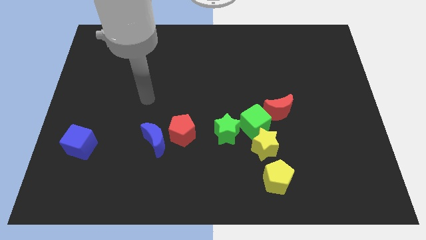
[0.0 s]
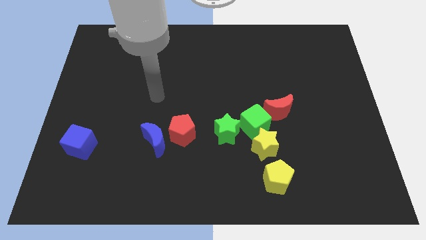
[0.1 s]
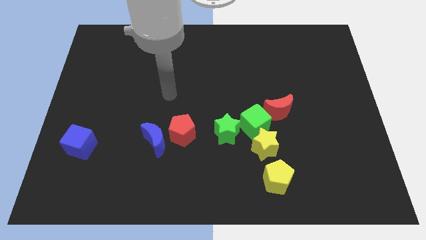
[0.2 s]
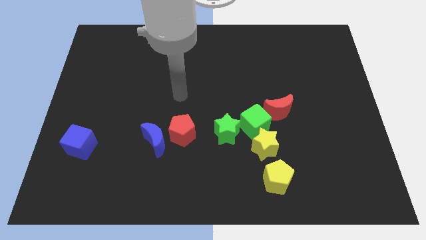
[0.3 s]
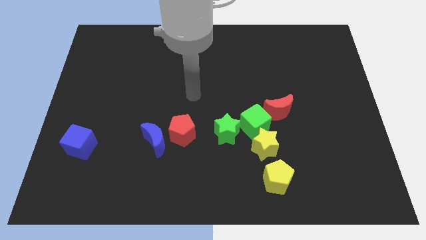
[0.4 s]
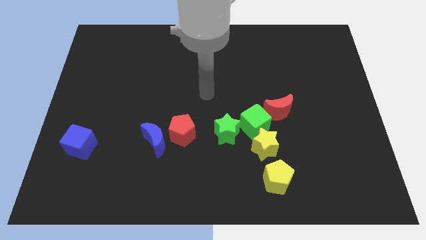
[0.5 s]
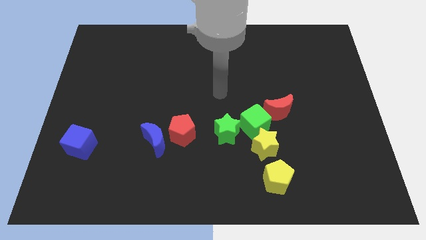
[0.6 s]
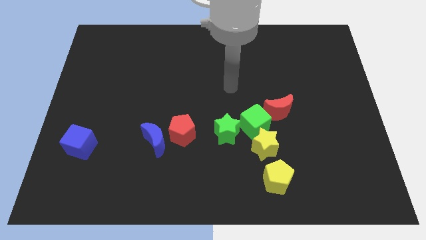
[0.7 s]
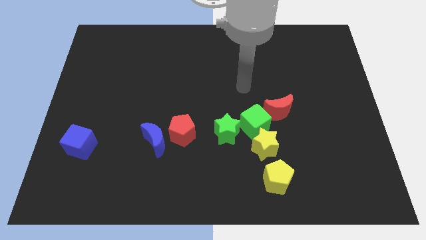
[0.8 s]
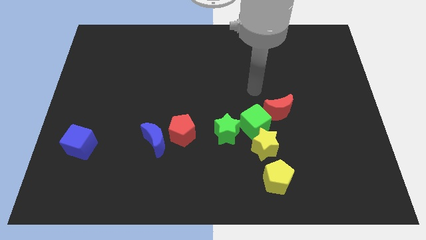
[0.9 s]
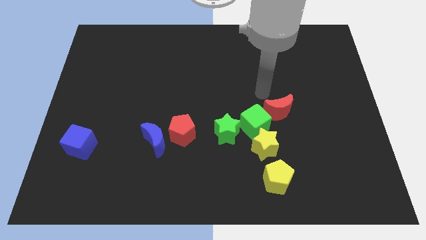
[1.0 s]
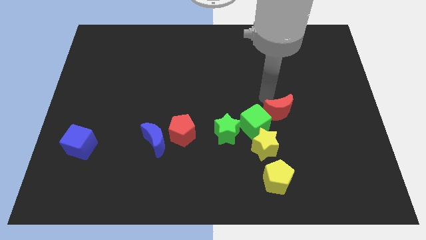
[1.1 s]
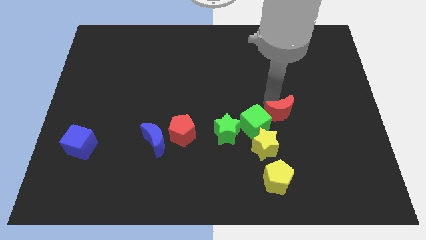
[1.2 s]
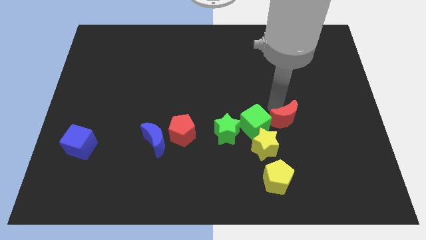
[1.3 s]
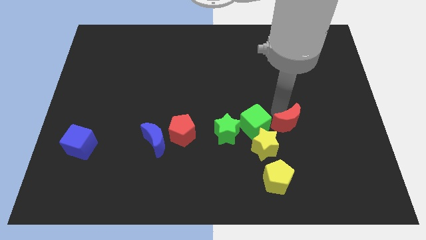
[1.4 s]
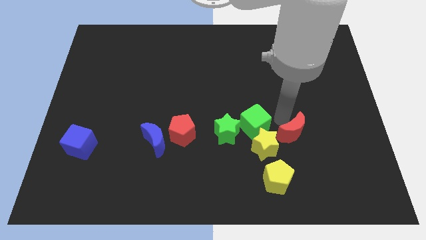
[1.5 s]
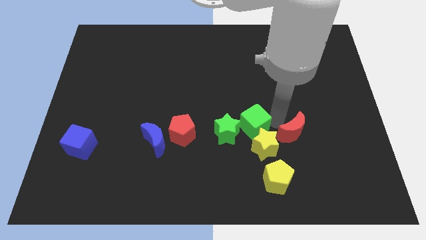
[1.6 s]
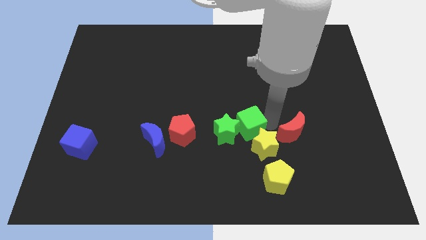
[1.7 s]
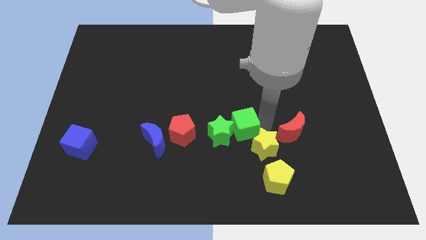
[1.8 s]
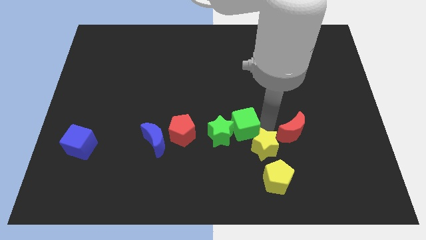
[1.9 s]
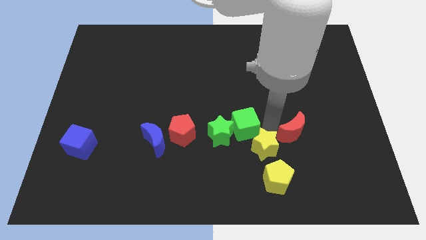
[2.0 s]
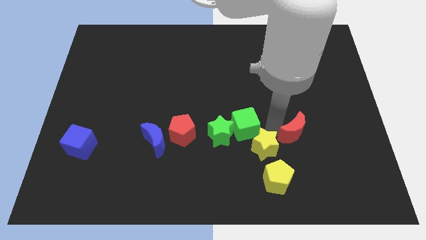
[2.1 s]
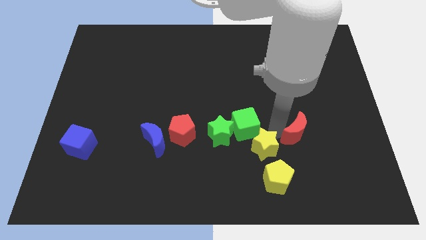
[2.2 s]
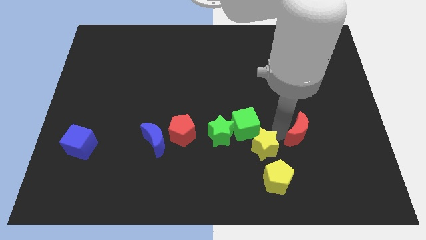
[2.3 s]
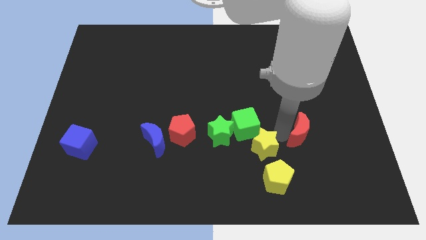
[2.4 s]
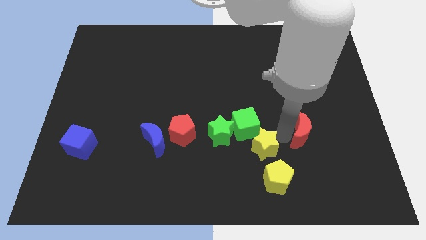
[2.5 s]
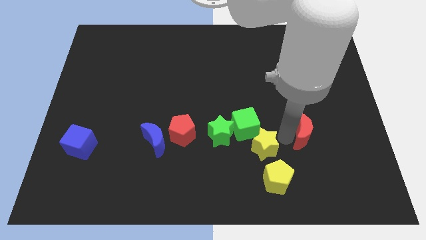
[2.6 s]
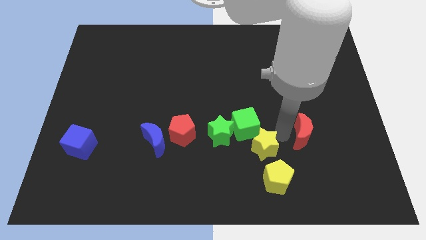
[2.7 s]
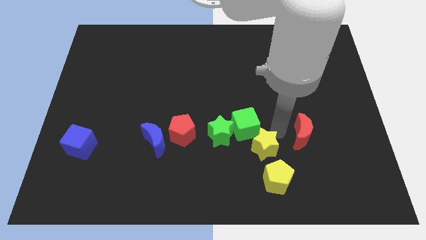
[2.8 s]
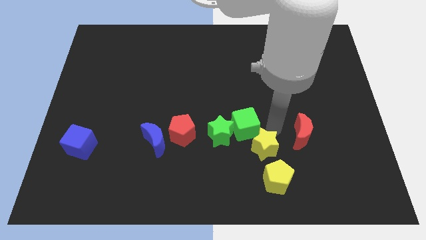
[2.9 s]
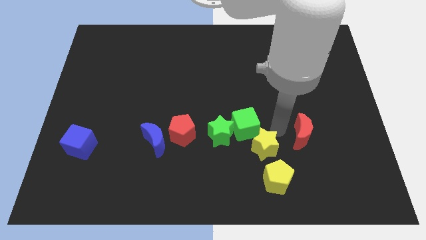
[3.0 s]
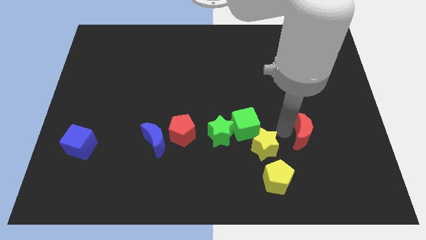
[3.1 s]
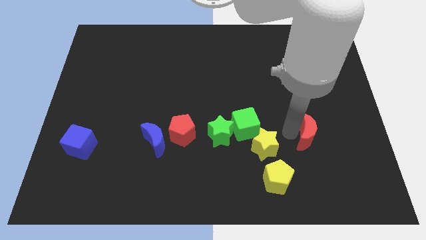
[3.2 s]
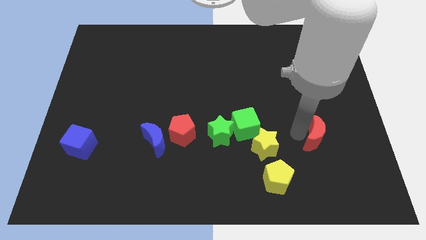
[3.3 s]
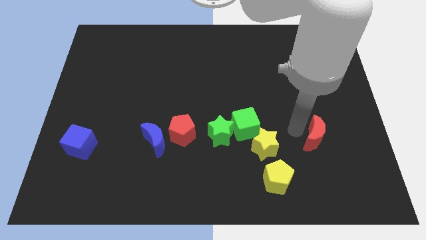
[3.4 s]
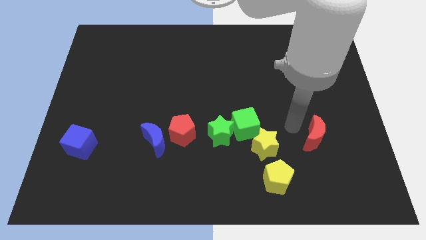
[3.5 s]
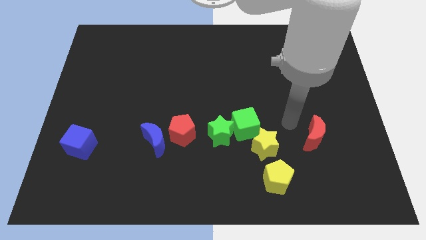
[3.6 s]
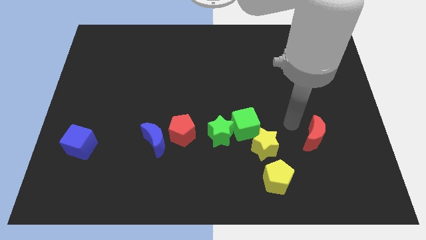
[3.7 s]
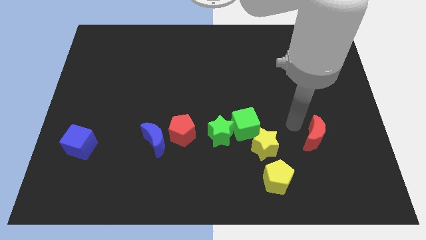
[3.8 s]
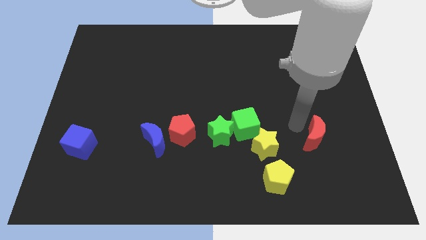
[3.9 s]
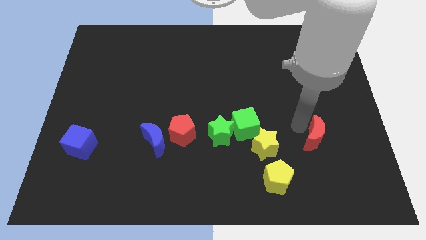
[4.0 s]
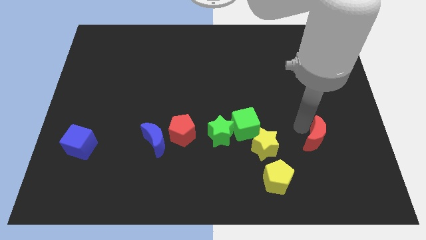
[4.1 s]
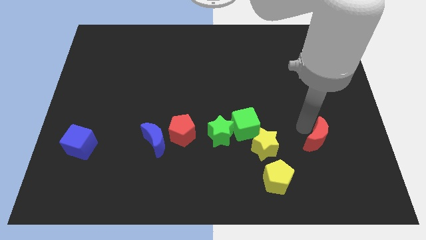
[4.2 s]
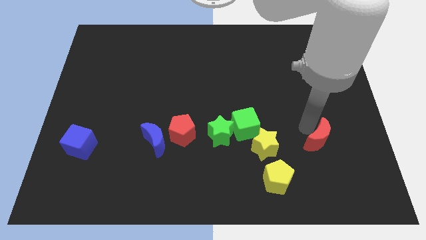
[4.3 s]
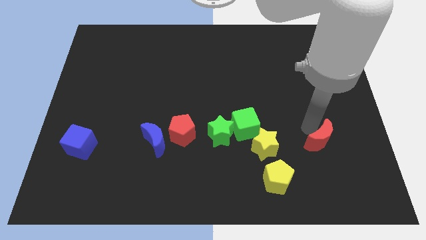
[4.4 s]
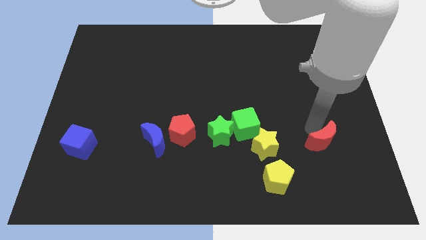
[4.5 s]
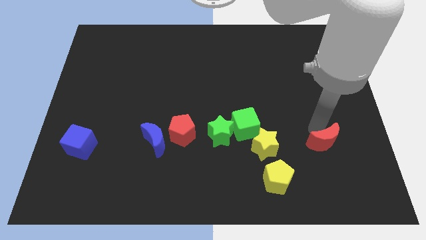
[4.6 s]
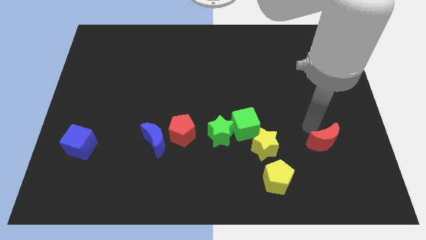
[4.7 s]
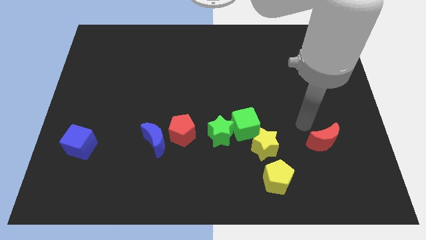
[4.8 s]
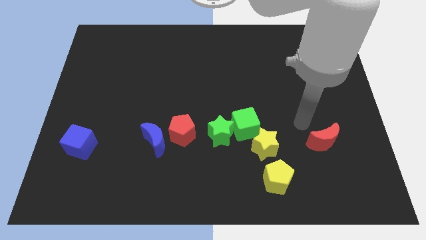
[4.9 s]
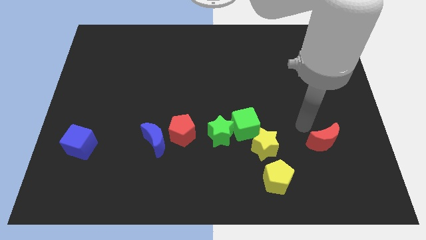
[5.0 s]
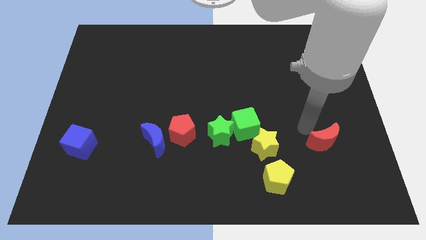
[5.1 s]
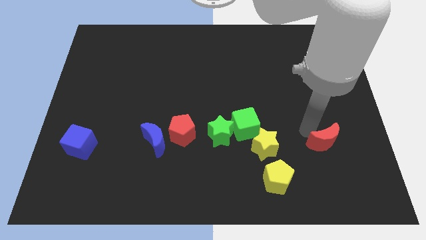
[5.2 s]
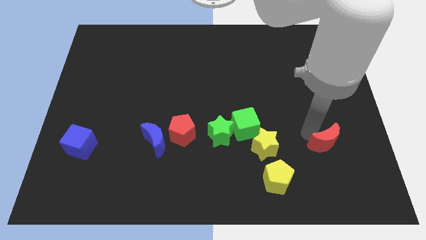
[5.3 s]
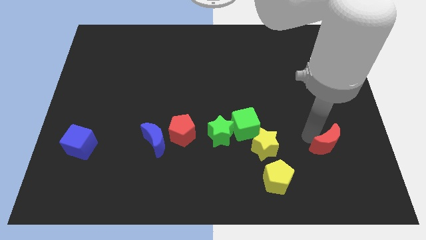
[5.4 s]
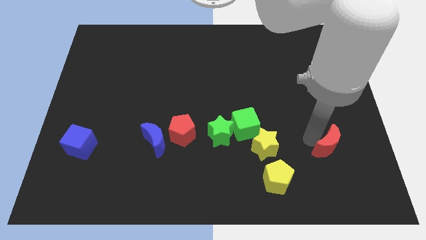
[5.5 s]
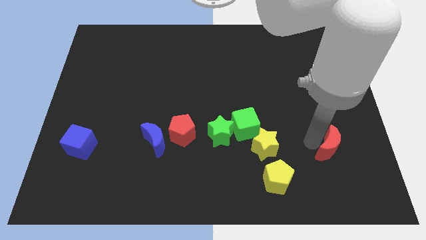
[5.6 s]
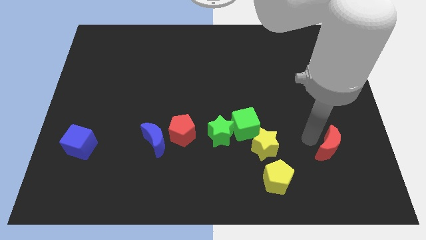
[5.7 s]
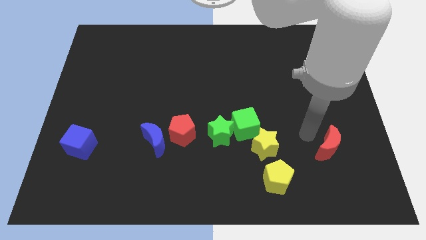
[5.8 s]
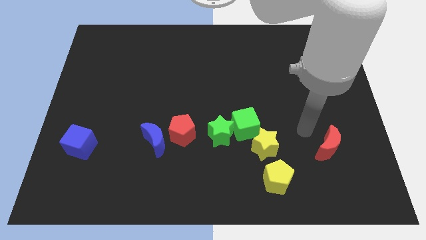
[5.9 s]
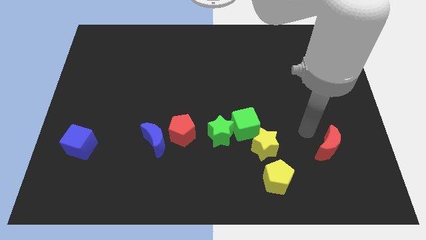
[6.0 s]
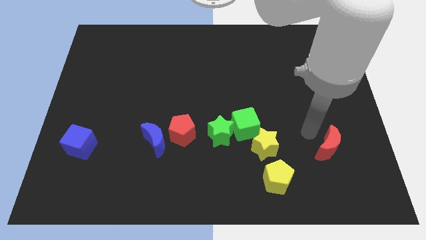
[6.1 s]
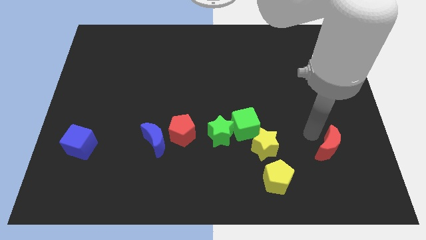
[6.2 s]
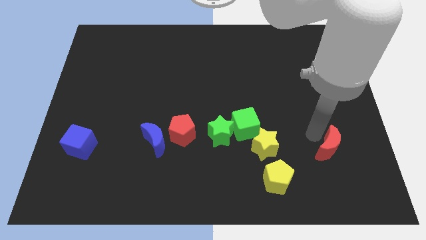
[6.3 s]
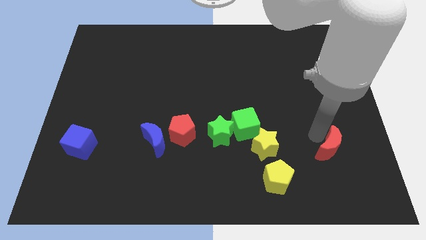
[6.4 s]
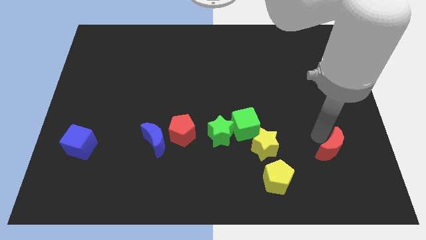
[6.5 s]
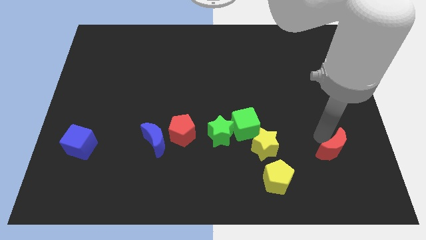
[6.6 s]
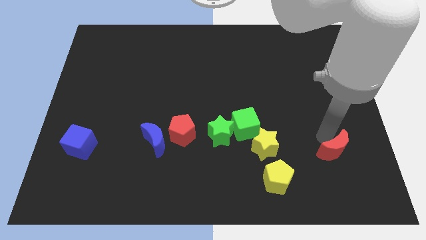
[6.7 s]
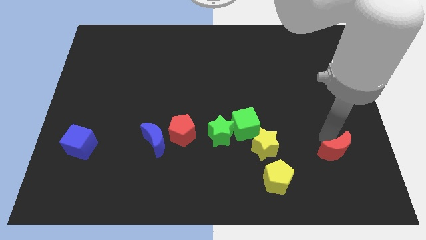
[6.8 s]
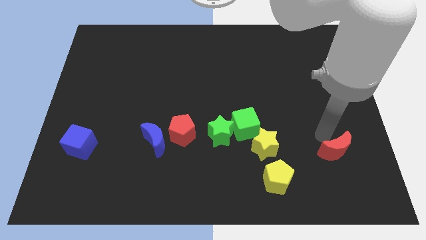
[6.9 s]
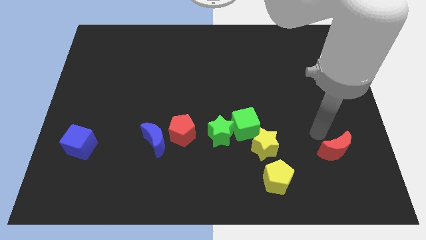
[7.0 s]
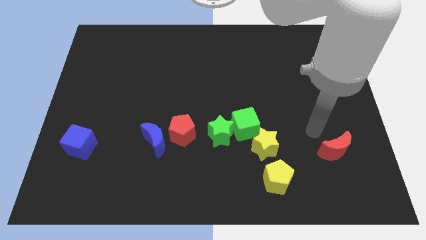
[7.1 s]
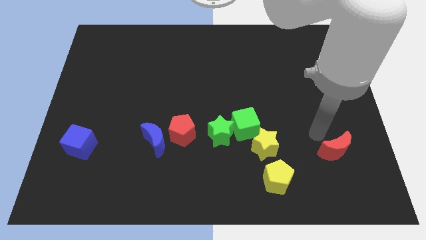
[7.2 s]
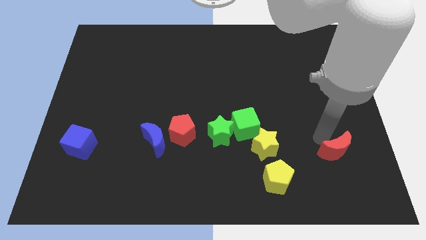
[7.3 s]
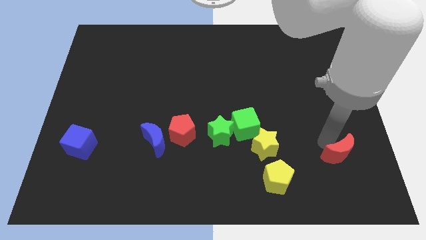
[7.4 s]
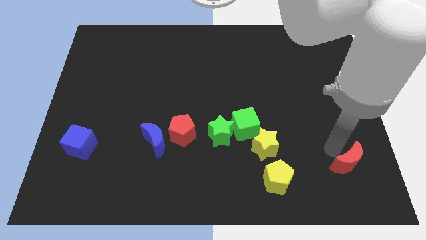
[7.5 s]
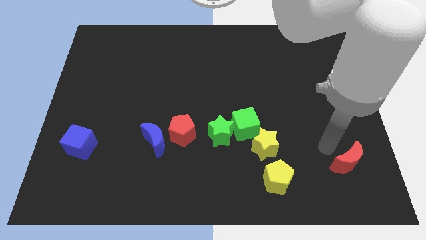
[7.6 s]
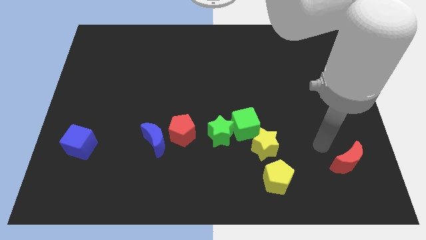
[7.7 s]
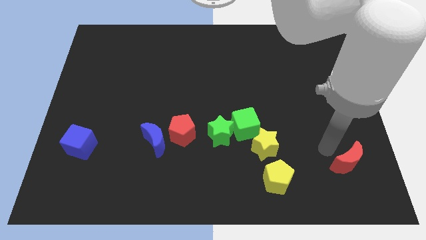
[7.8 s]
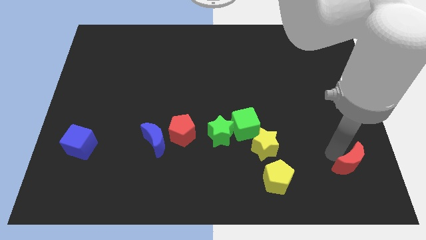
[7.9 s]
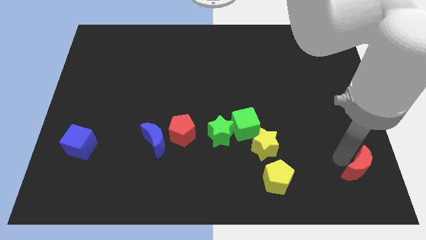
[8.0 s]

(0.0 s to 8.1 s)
move the red moon to the bottom right corner
